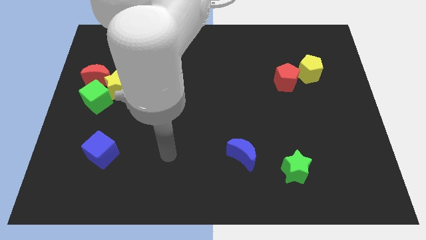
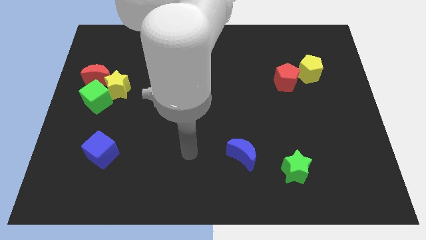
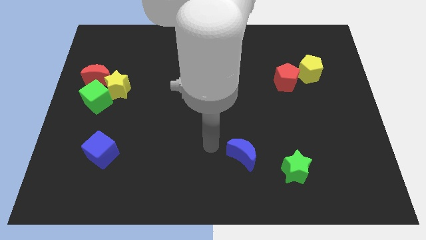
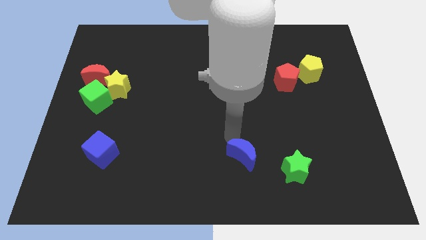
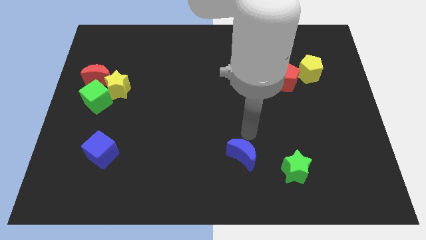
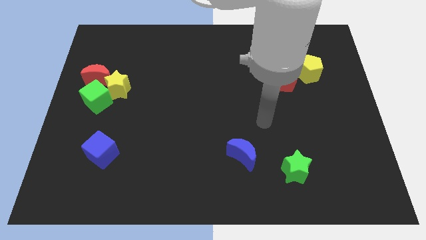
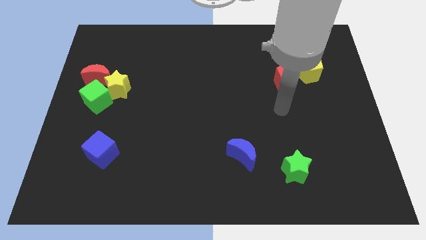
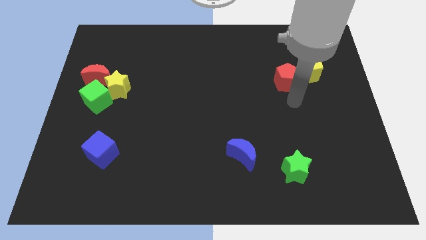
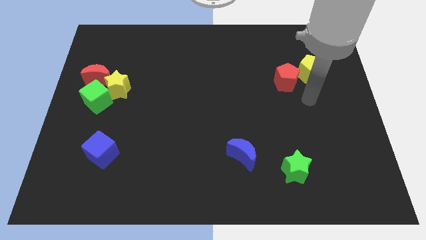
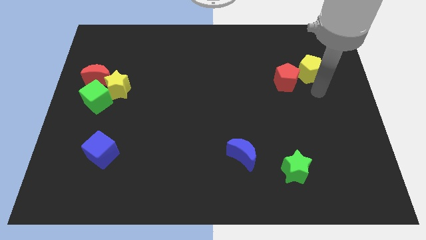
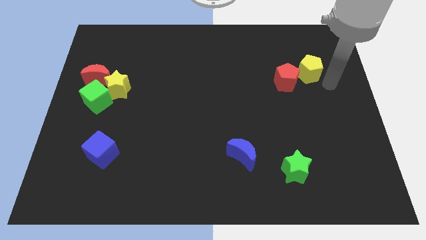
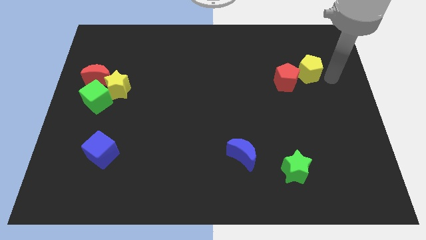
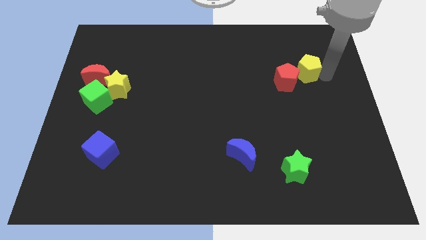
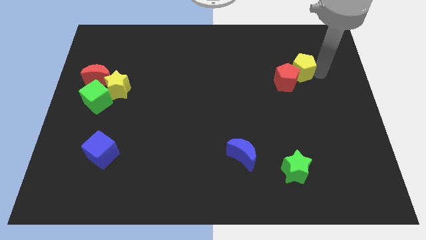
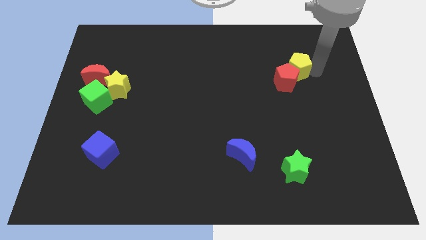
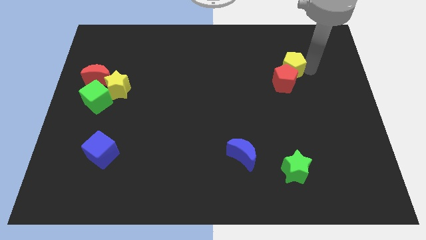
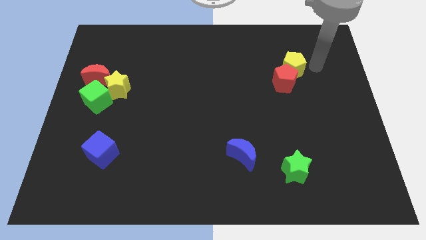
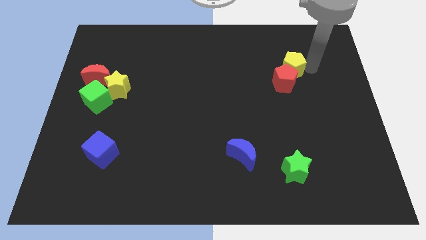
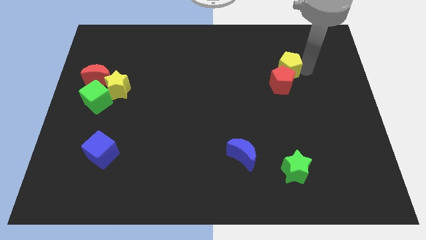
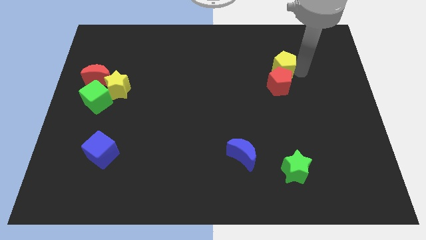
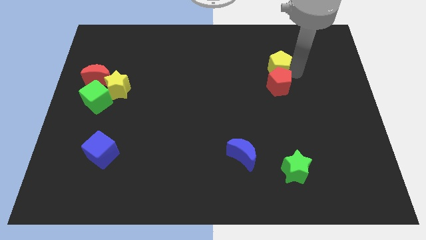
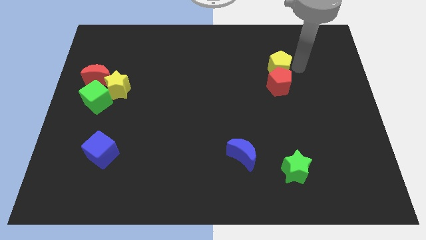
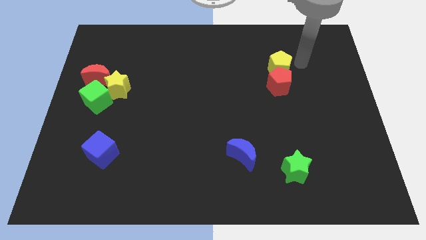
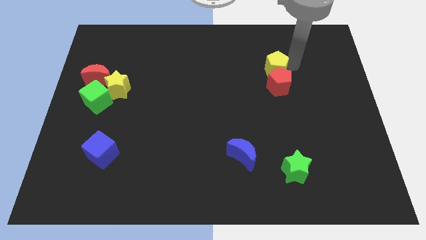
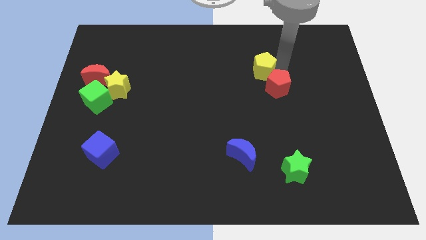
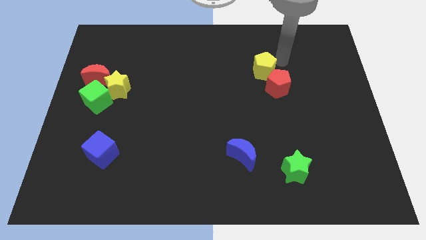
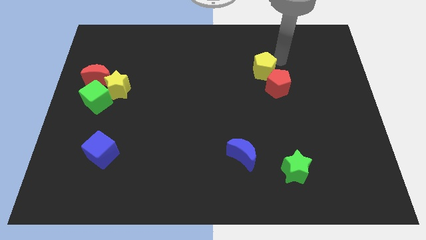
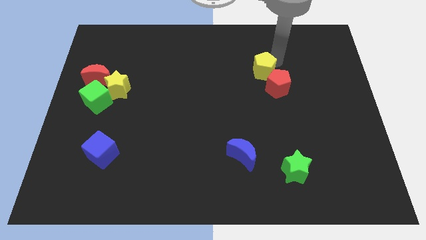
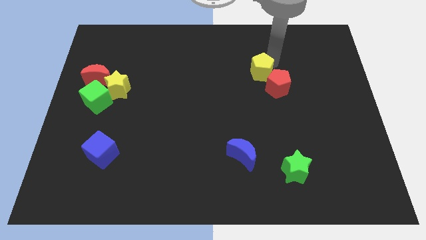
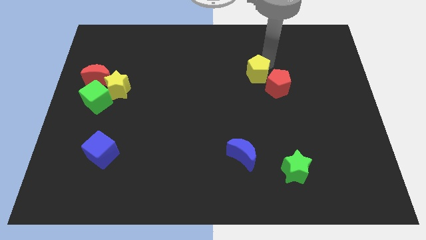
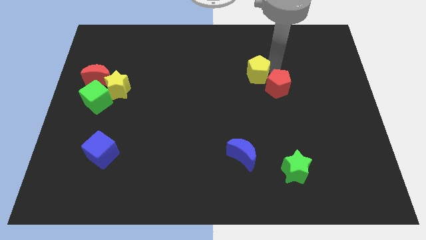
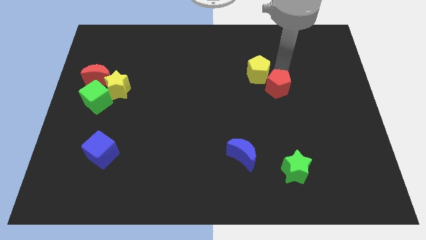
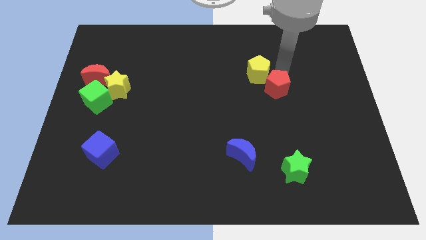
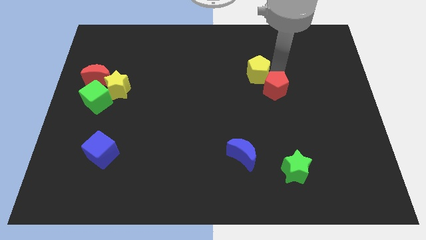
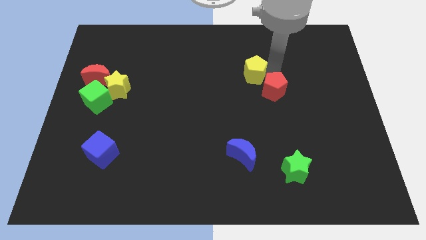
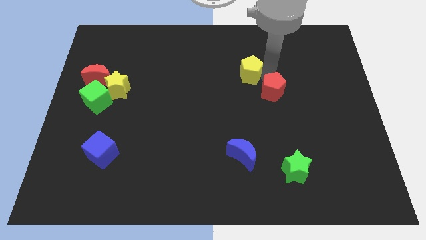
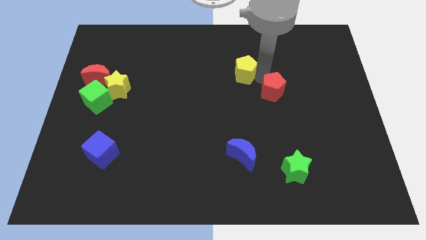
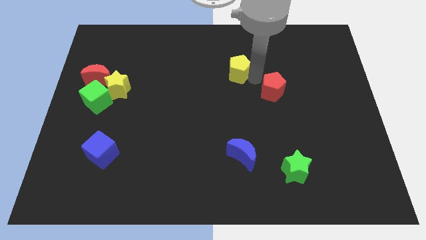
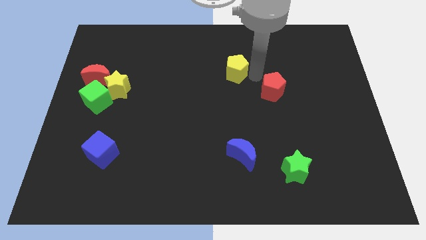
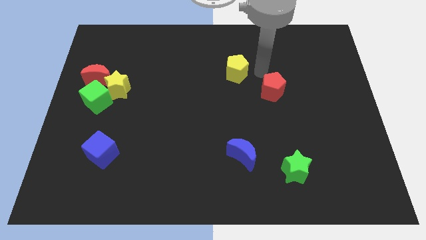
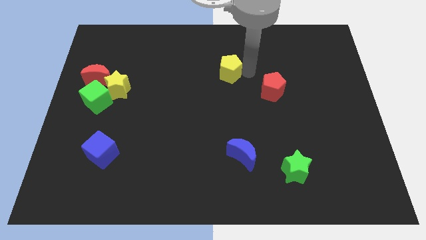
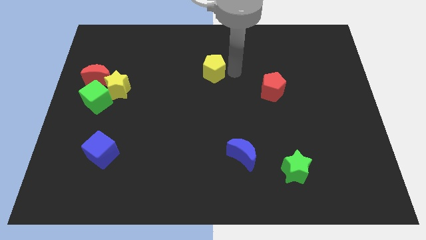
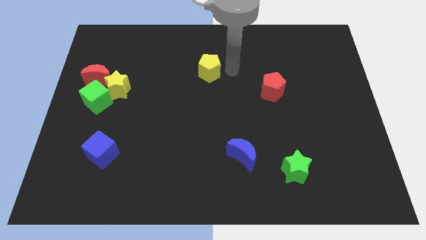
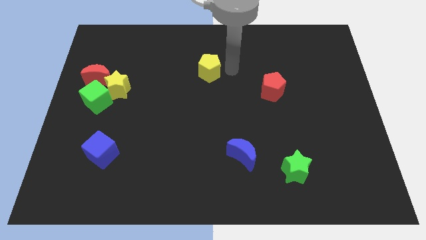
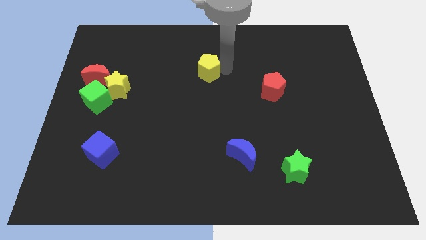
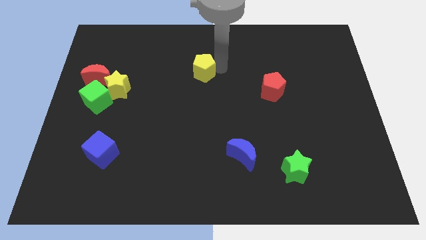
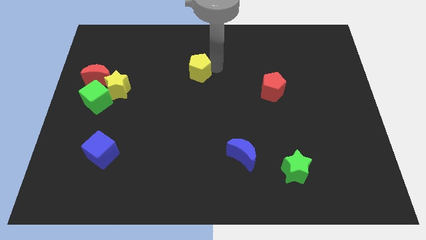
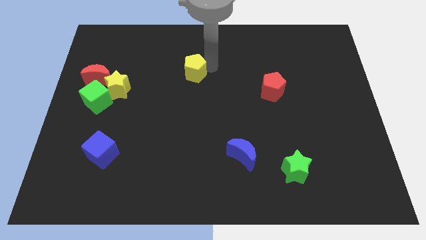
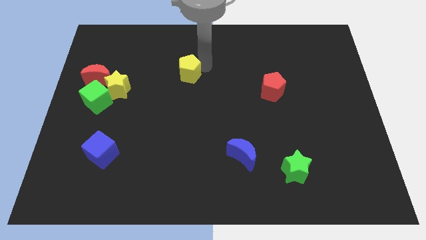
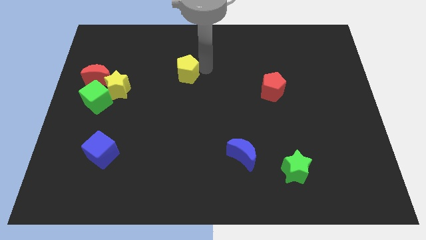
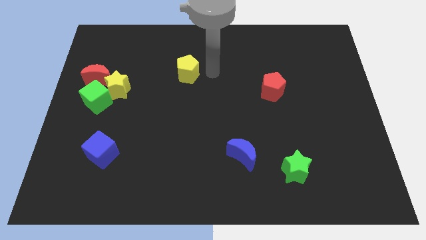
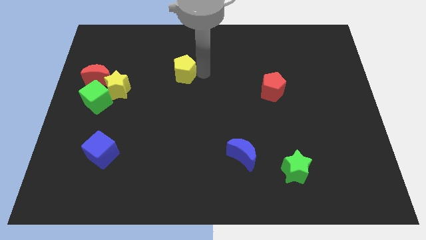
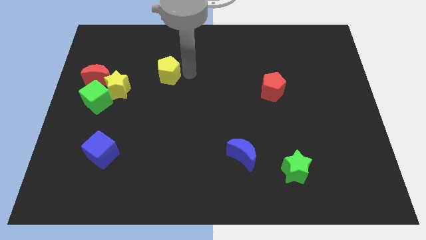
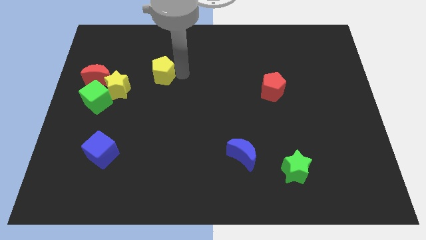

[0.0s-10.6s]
move the yellow pentagon to the top right side of the yellow star

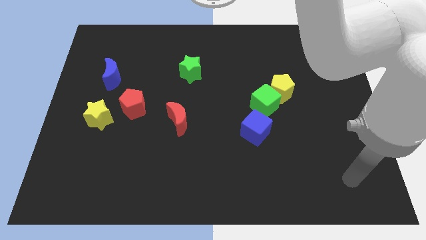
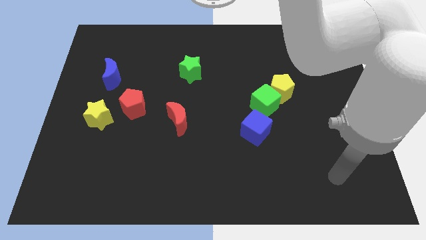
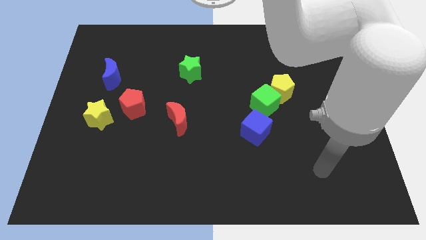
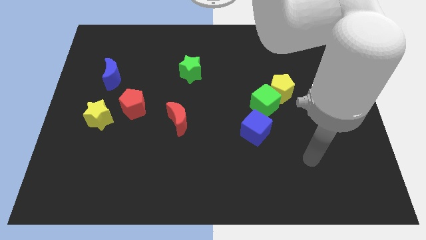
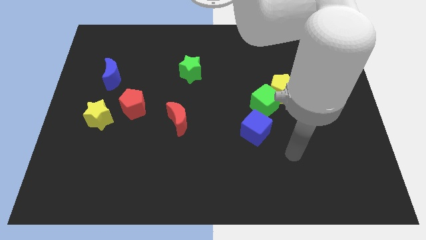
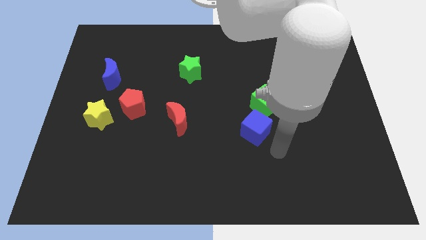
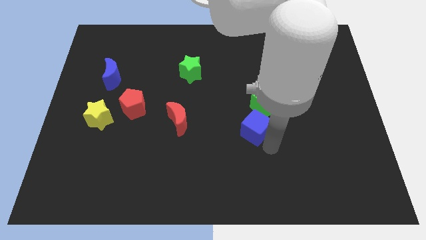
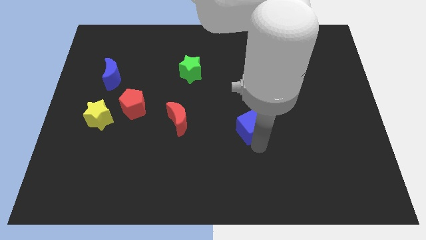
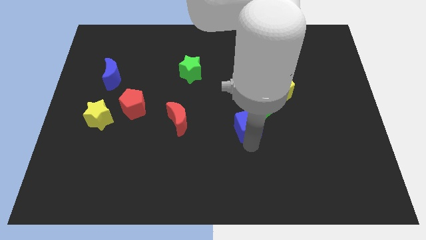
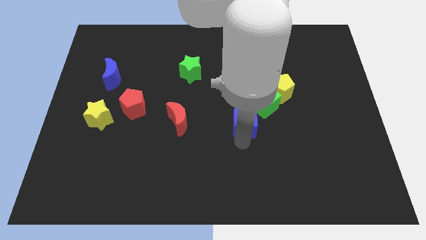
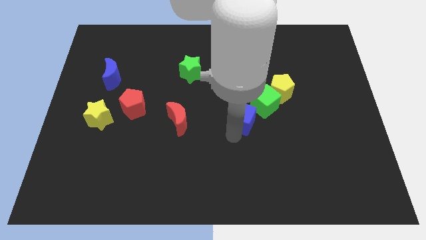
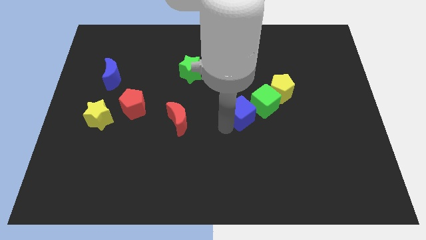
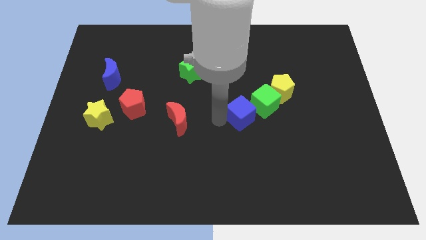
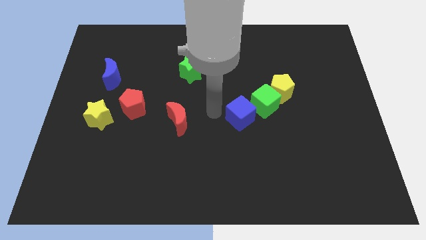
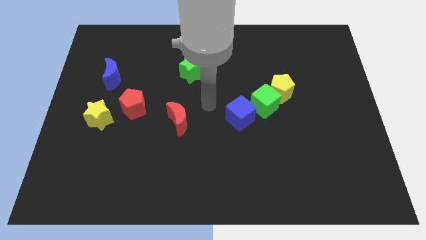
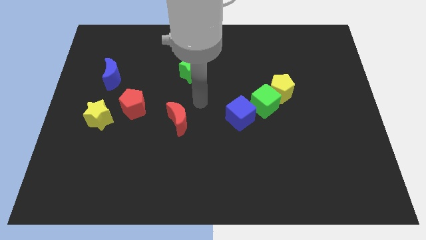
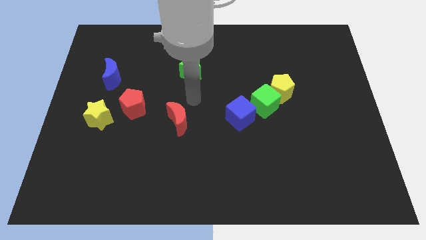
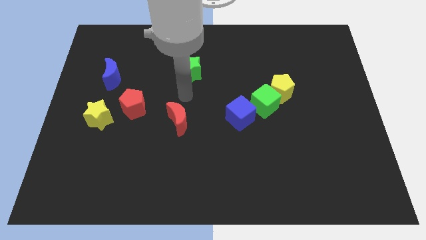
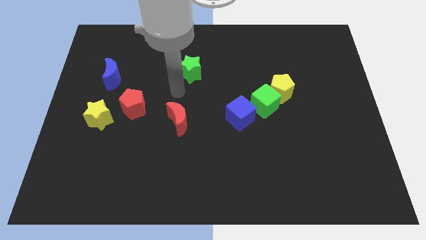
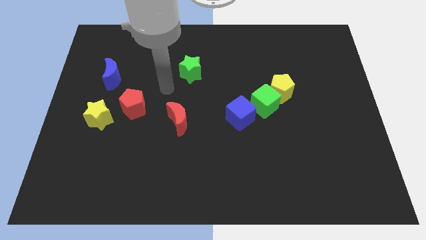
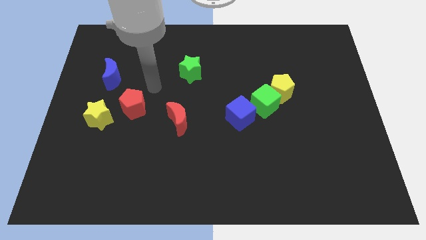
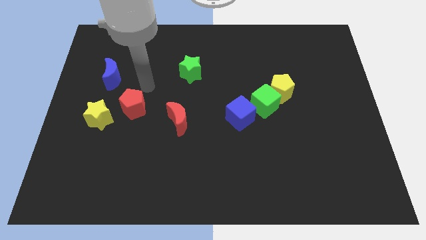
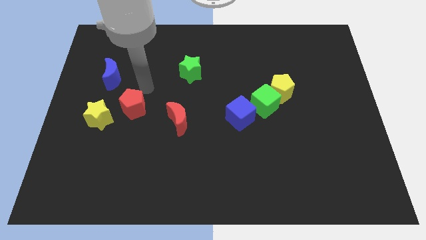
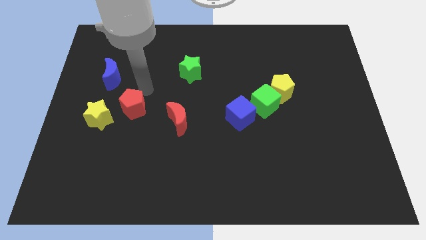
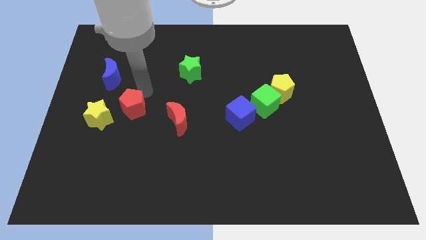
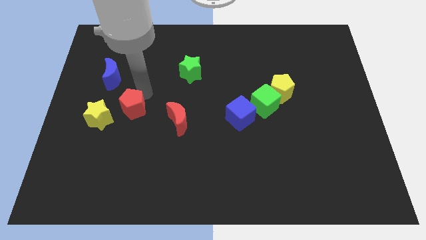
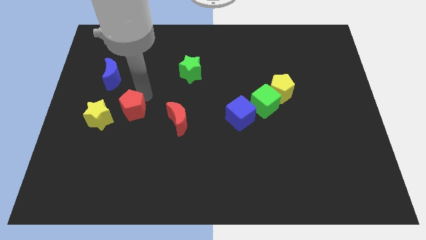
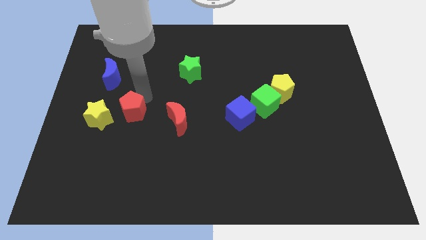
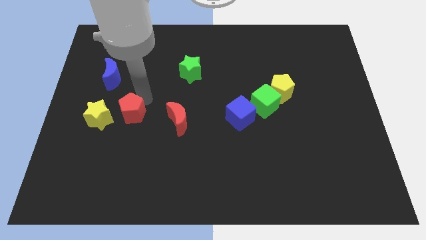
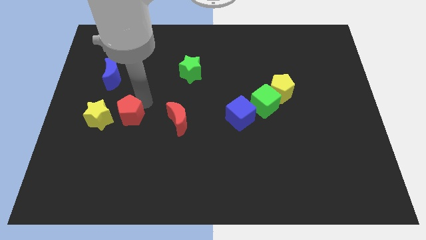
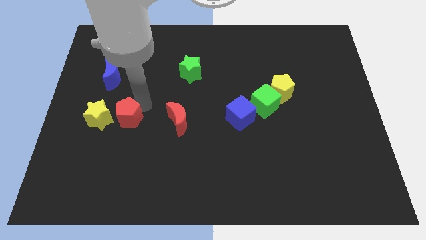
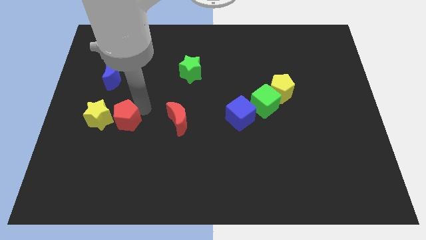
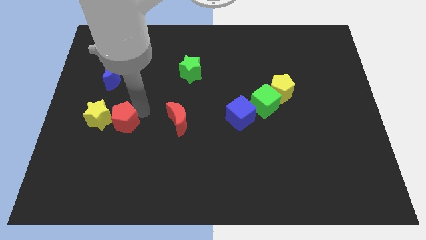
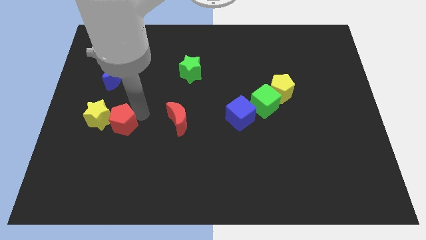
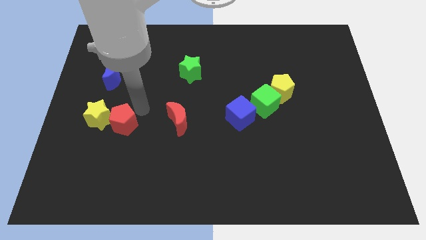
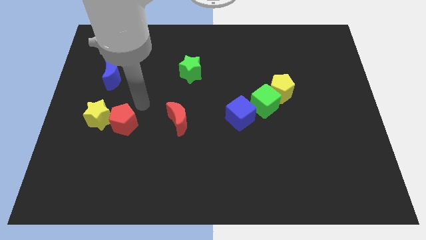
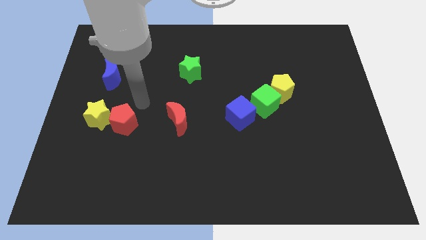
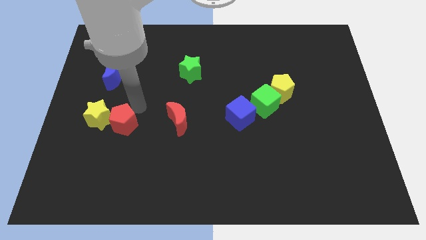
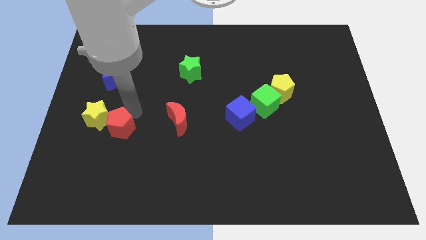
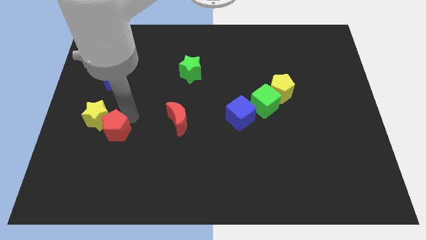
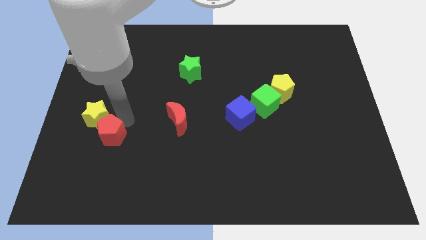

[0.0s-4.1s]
put the red pentagon to the bottom of the yellow star
